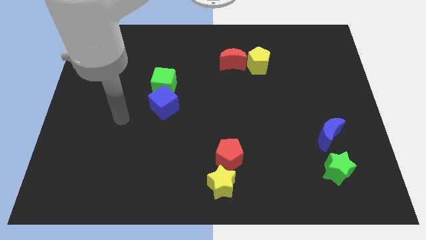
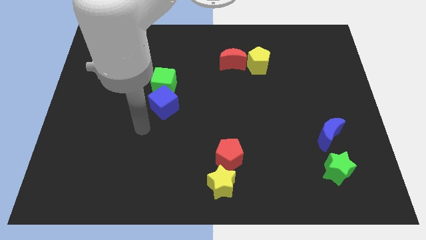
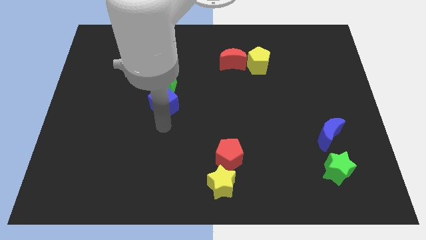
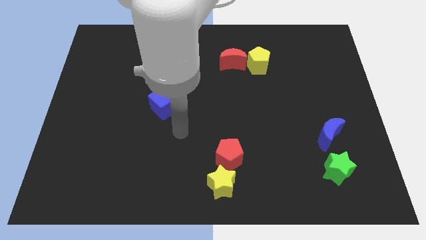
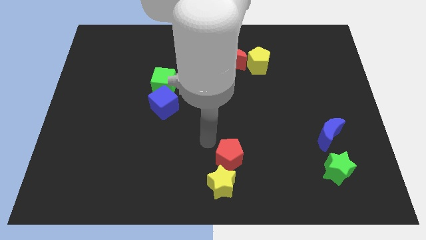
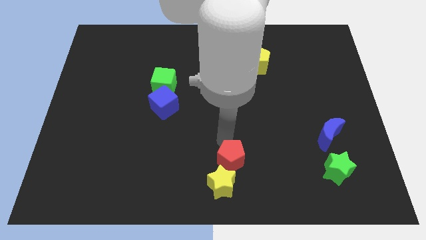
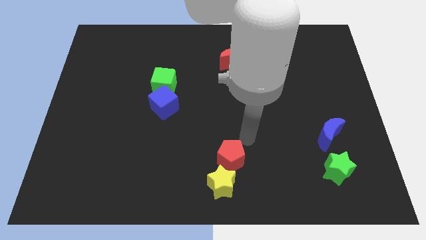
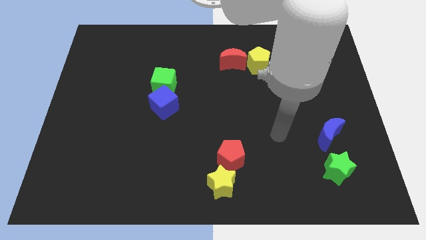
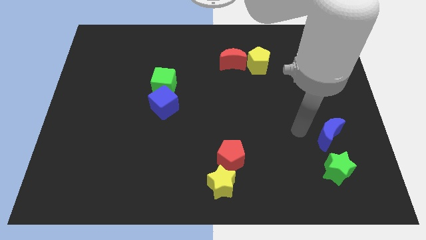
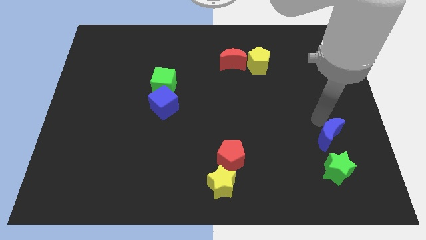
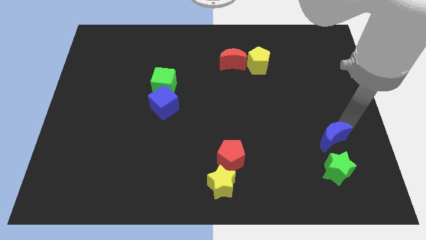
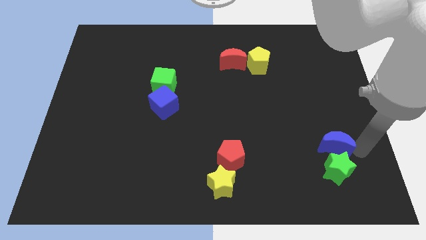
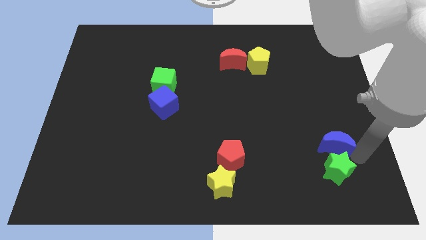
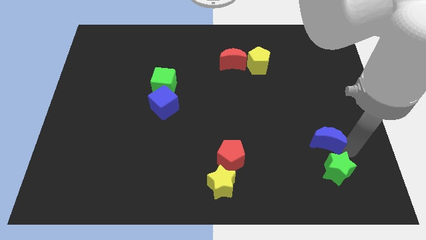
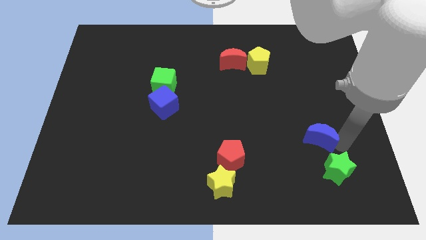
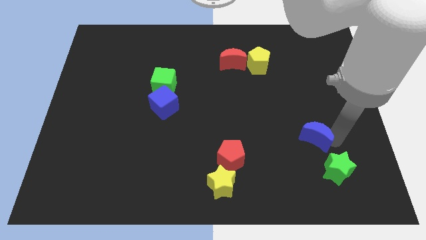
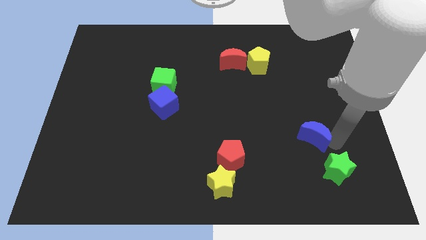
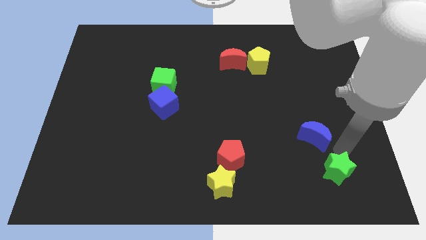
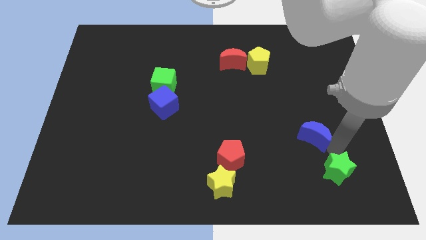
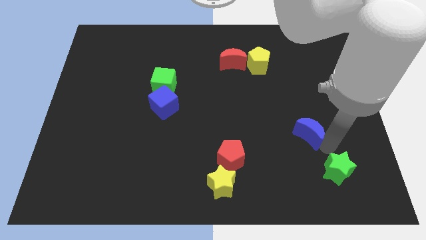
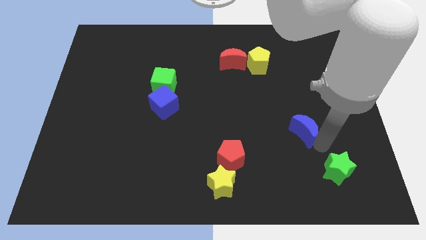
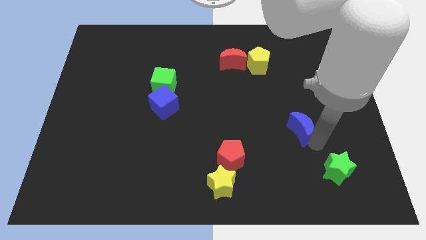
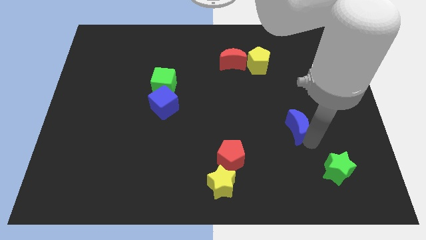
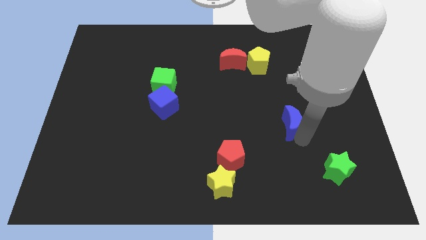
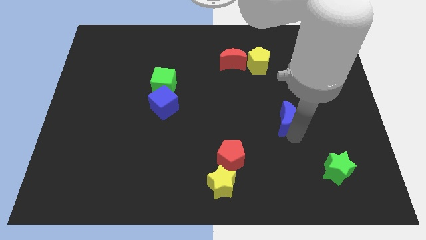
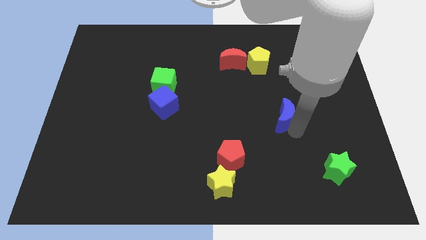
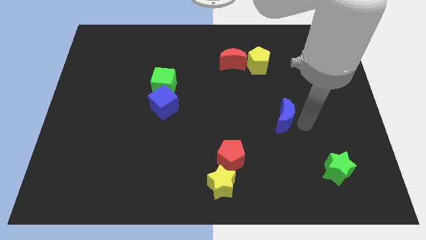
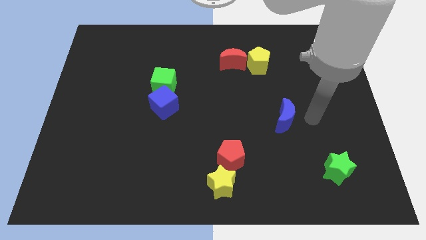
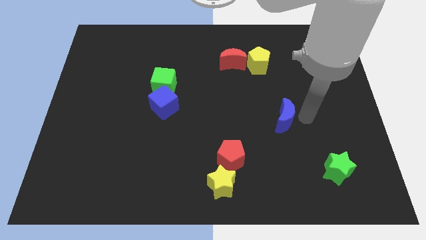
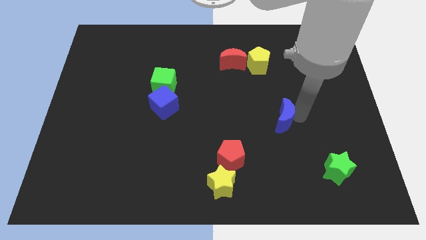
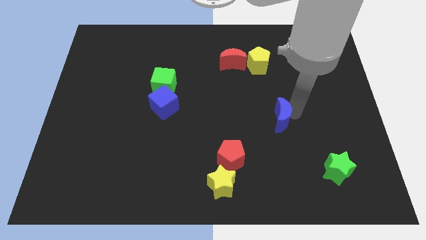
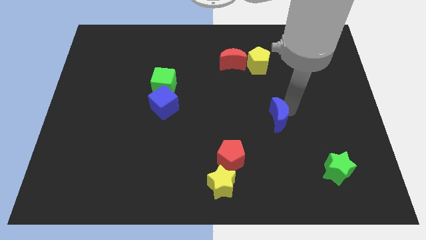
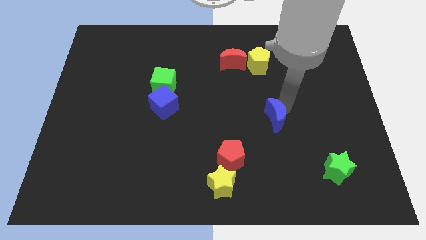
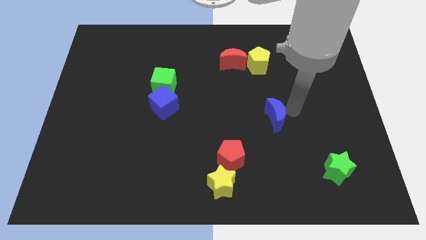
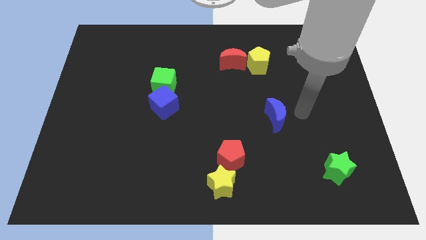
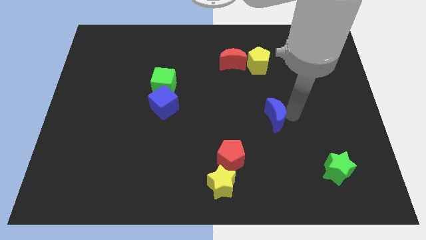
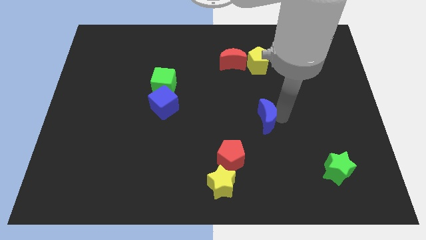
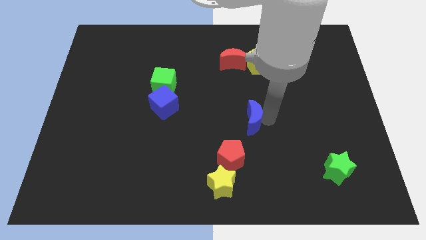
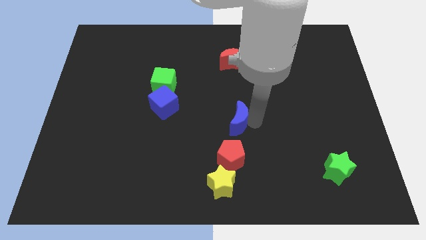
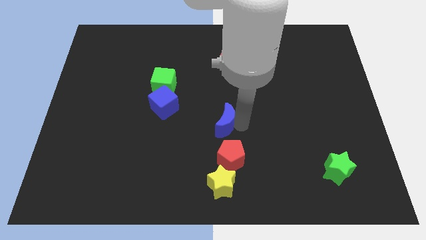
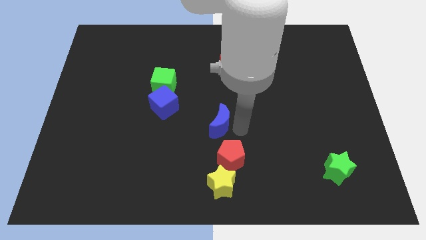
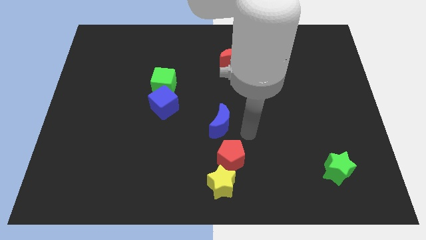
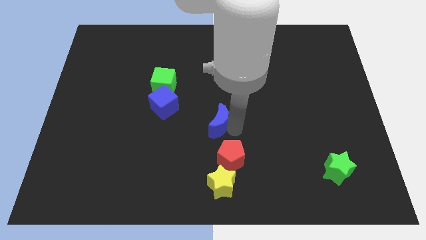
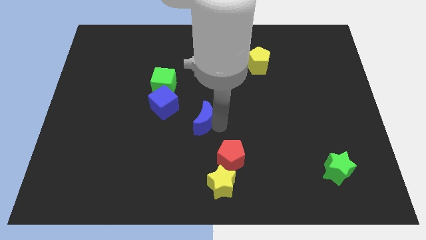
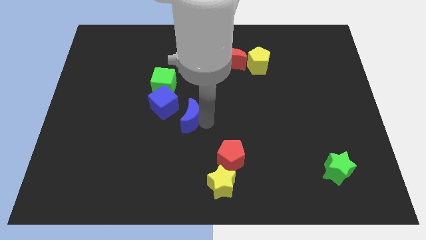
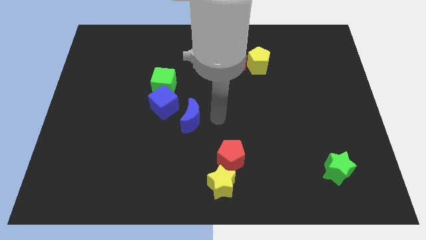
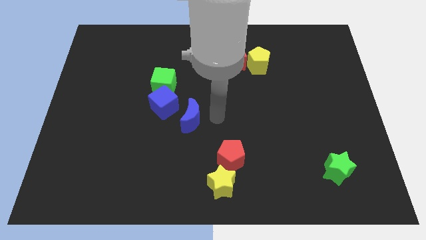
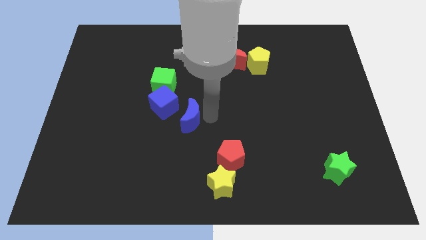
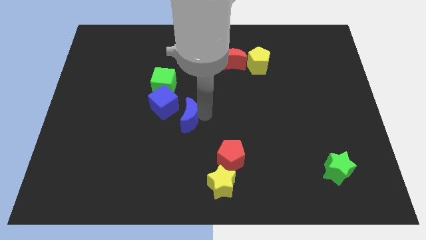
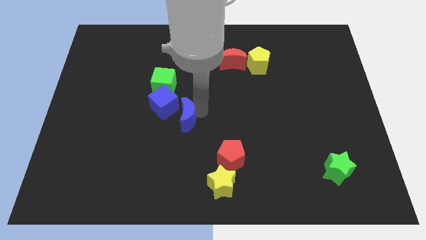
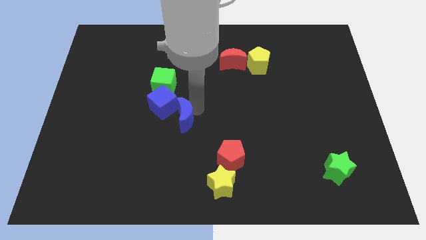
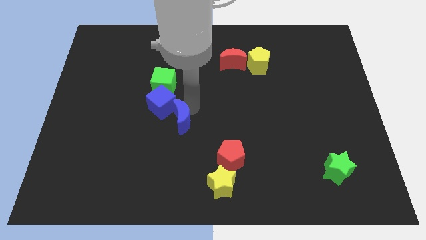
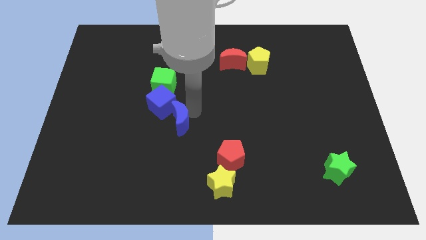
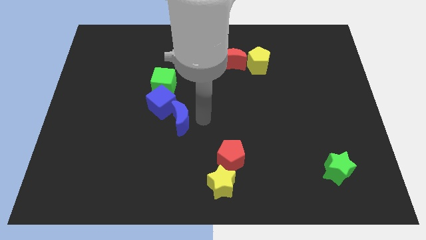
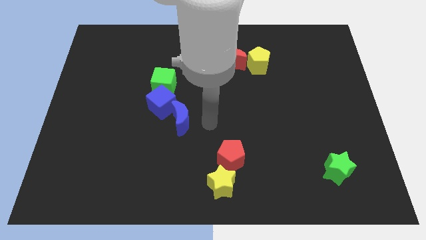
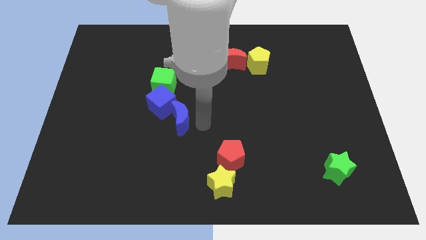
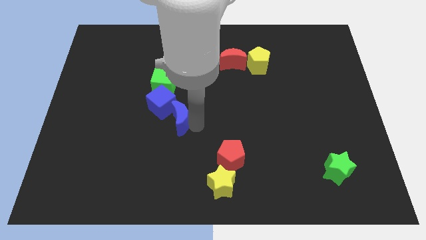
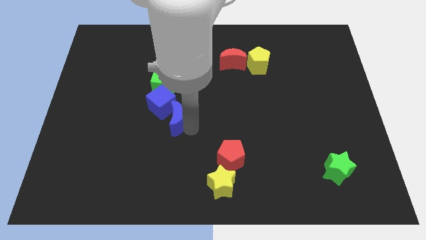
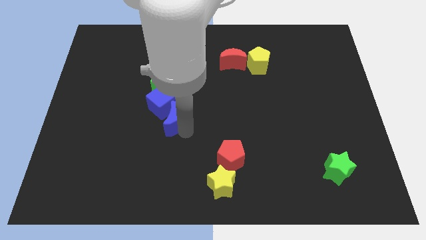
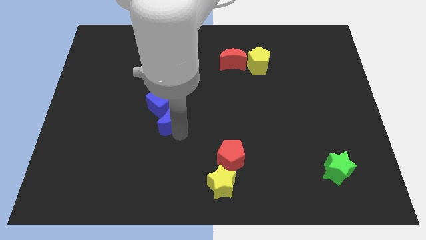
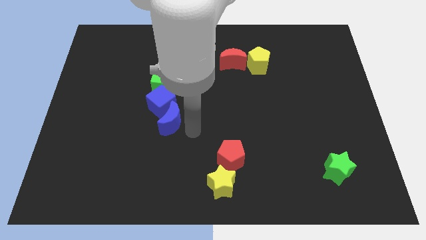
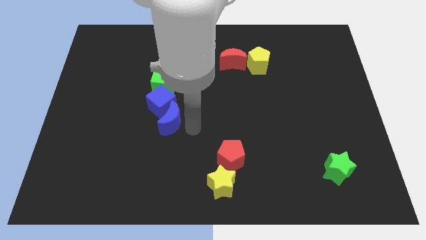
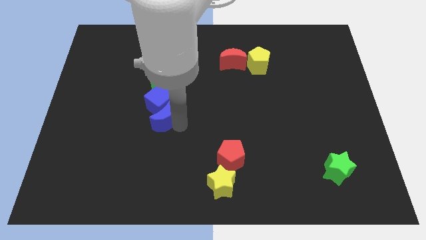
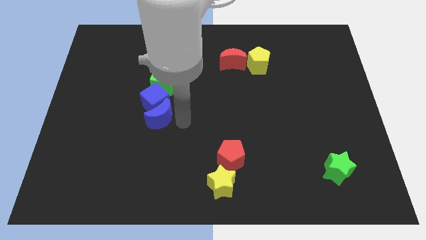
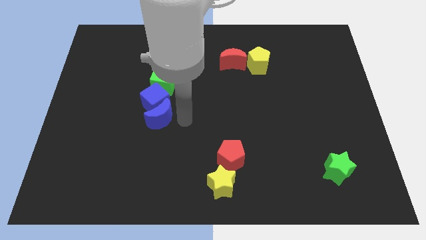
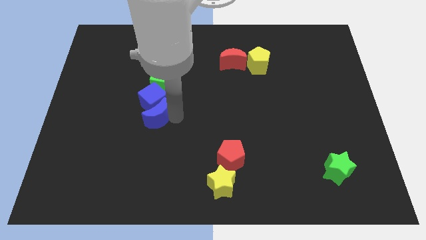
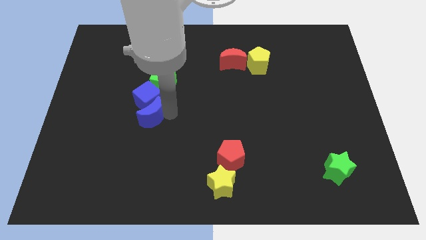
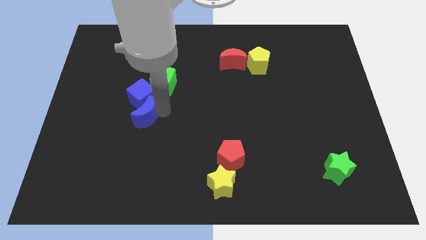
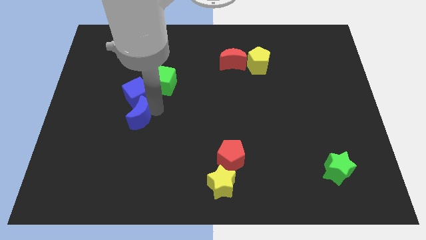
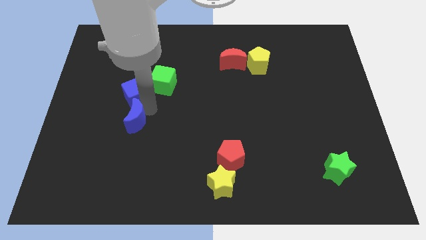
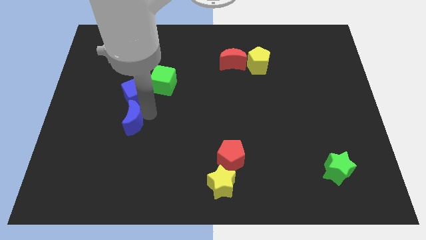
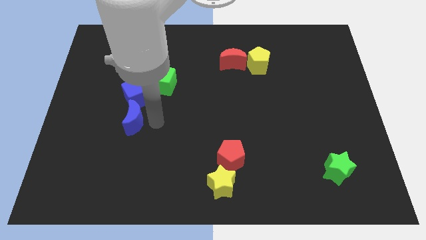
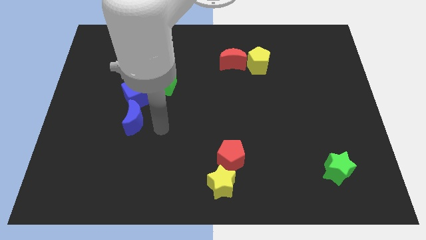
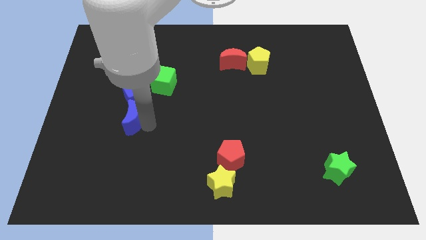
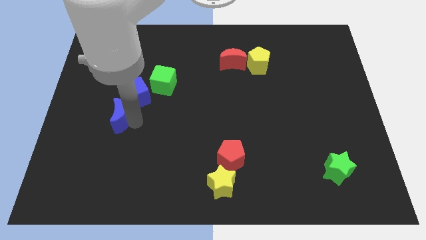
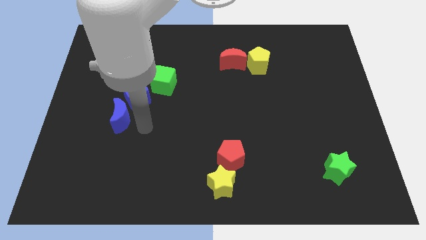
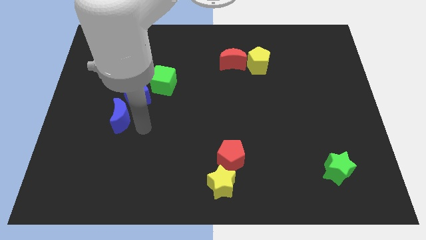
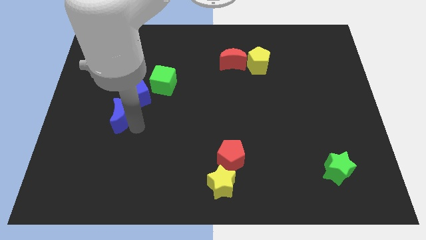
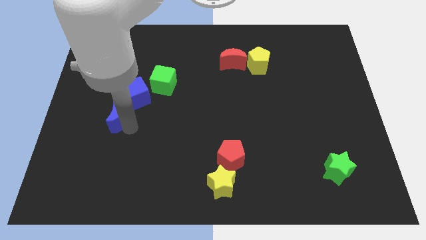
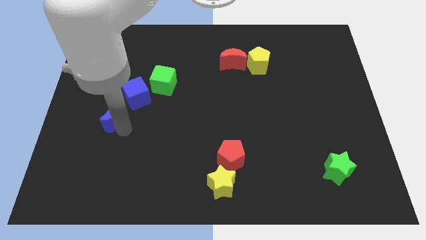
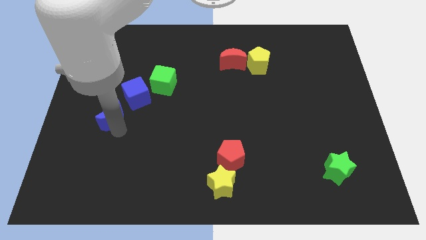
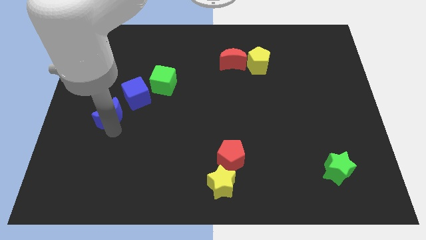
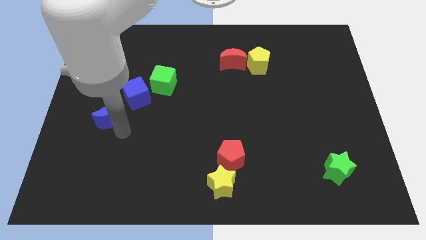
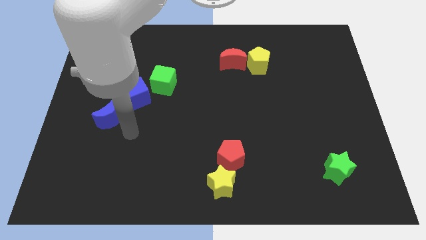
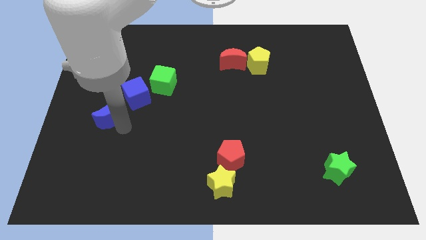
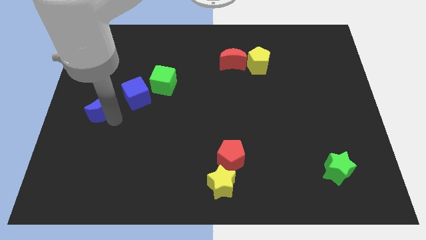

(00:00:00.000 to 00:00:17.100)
move the blue moon to the left side of the board
